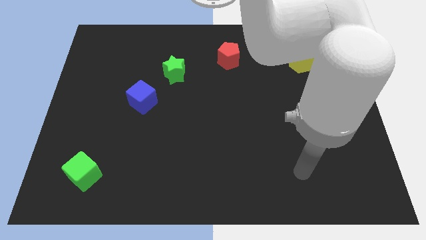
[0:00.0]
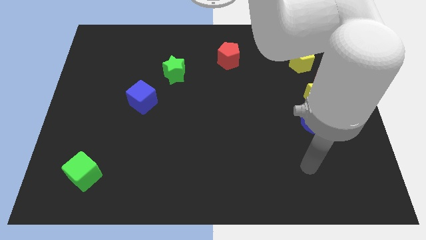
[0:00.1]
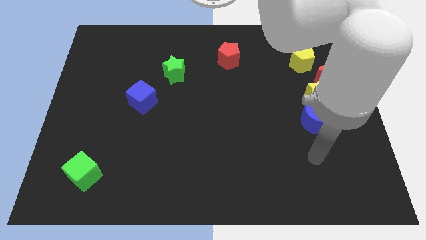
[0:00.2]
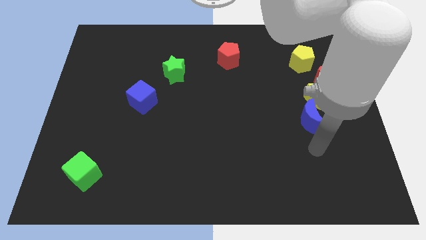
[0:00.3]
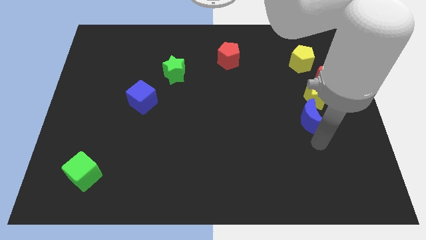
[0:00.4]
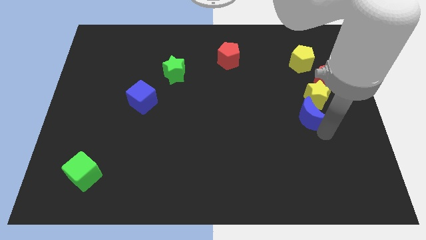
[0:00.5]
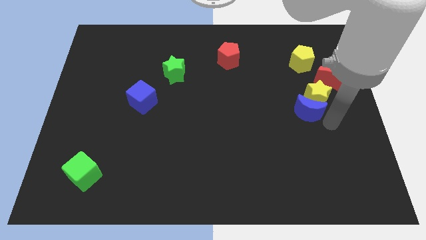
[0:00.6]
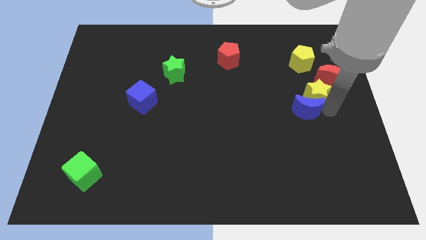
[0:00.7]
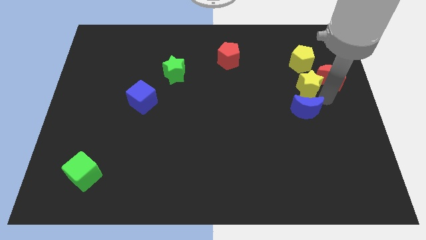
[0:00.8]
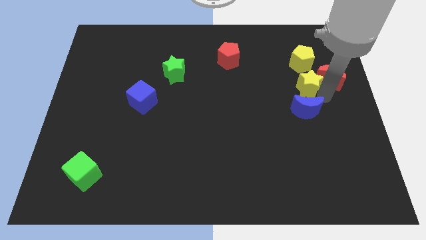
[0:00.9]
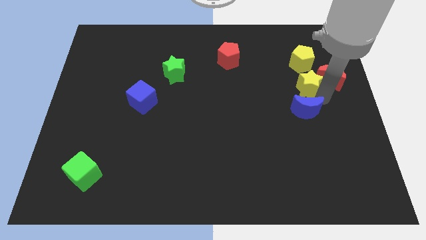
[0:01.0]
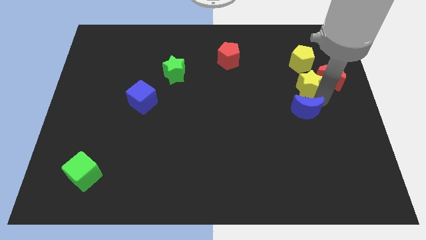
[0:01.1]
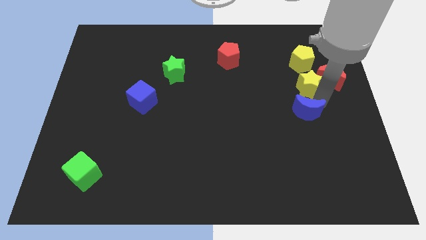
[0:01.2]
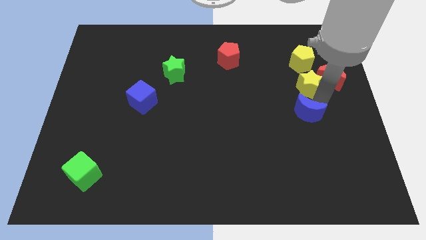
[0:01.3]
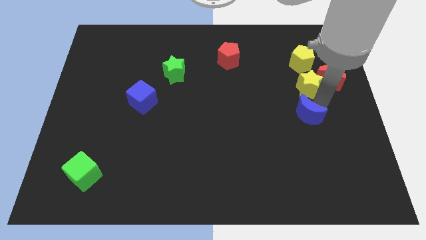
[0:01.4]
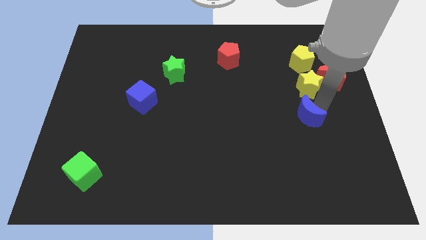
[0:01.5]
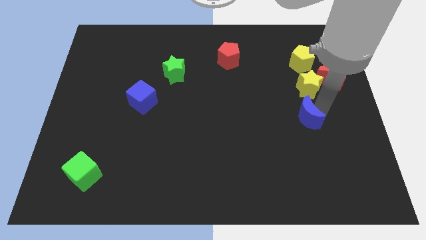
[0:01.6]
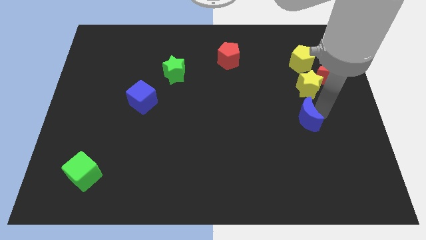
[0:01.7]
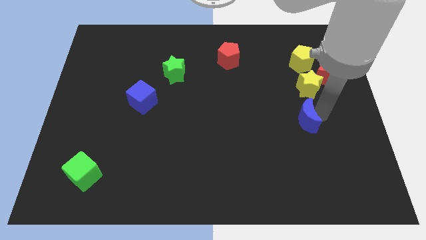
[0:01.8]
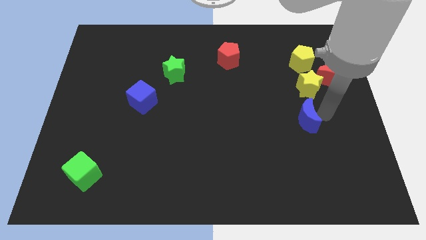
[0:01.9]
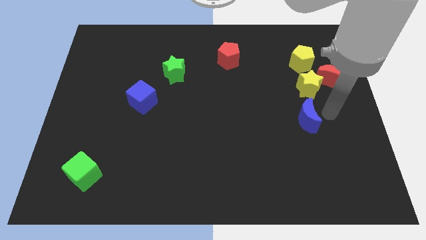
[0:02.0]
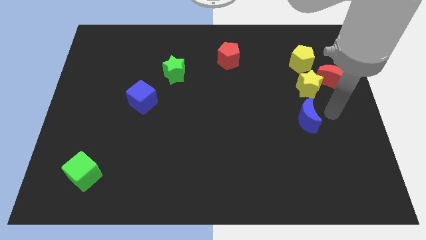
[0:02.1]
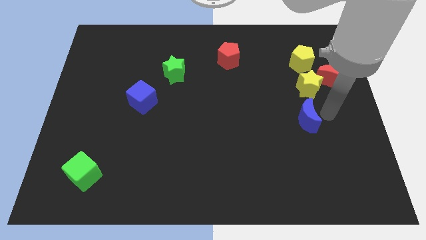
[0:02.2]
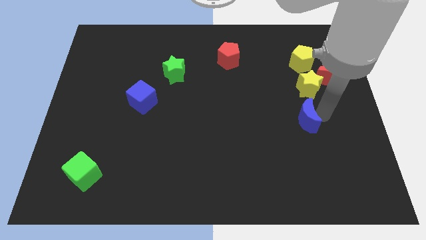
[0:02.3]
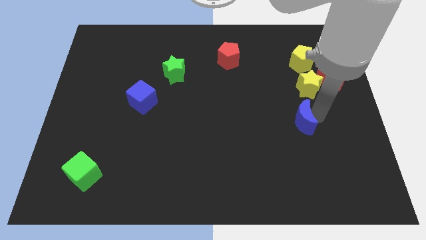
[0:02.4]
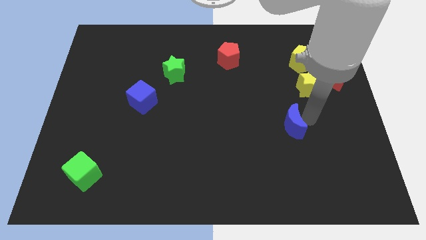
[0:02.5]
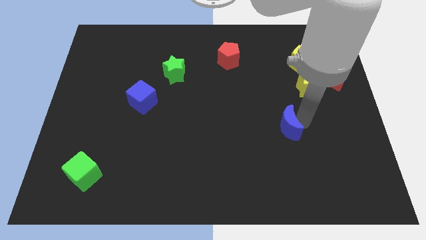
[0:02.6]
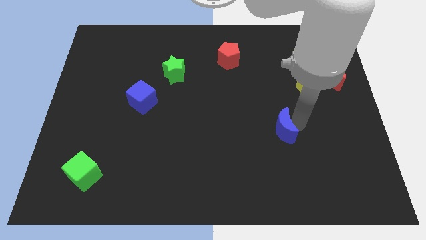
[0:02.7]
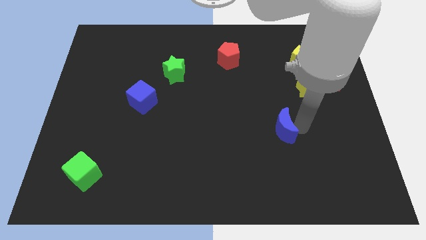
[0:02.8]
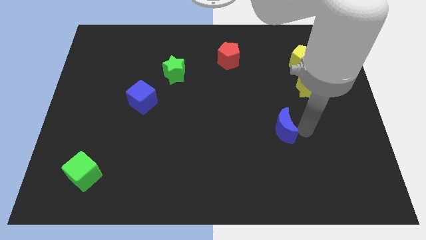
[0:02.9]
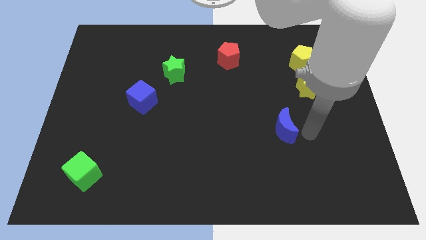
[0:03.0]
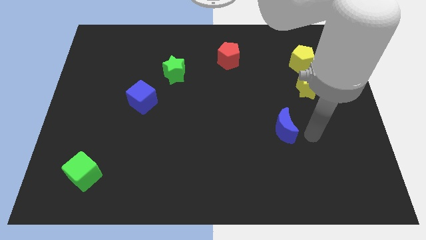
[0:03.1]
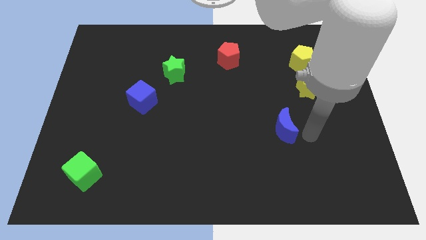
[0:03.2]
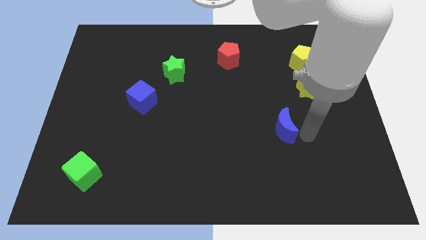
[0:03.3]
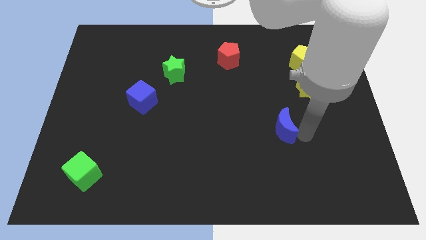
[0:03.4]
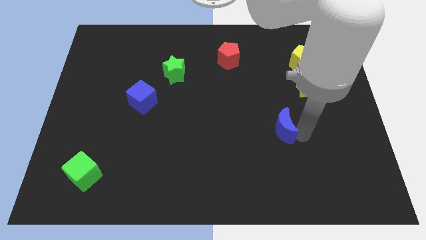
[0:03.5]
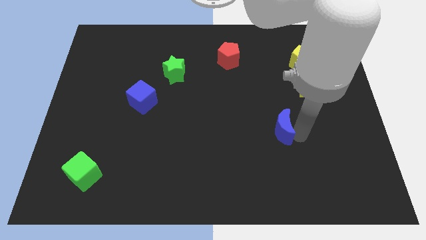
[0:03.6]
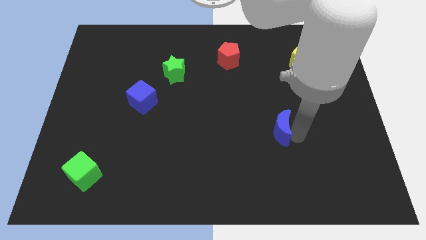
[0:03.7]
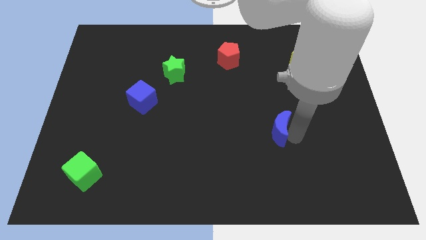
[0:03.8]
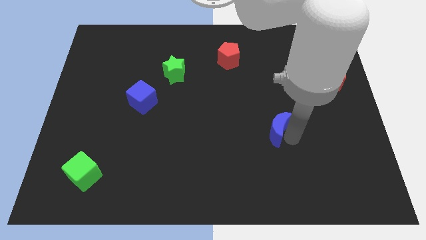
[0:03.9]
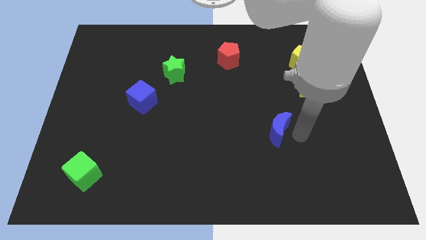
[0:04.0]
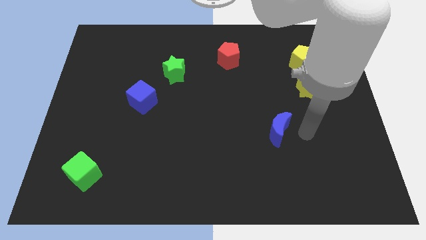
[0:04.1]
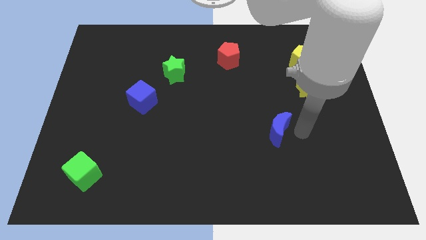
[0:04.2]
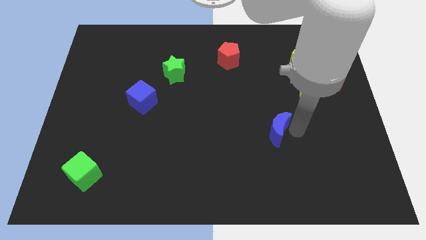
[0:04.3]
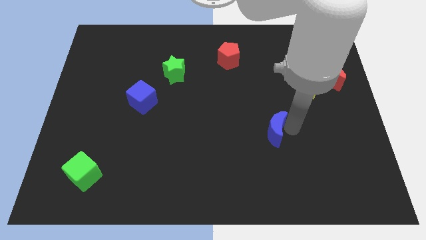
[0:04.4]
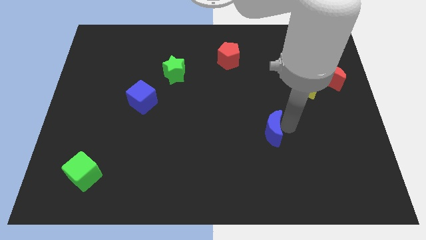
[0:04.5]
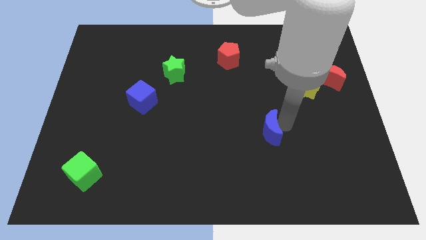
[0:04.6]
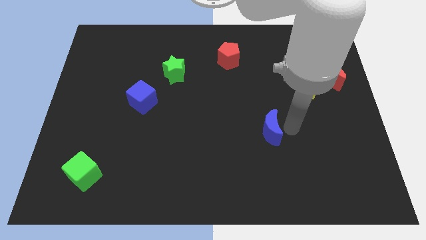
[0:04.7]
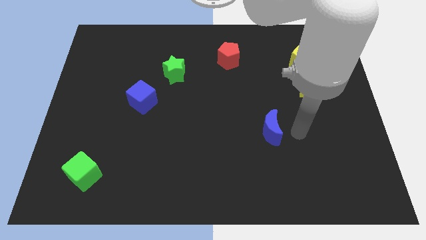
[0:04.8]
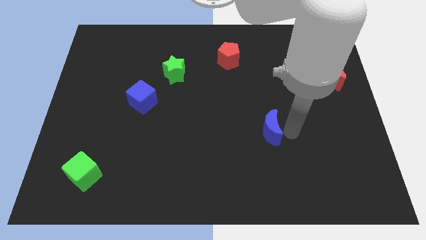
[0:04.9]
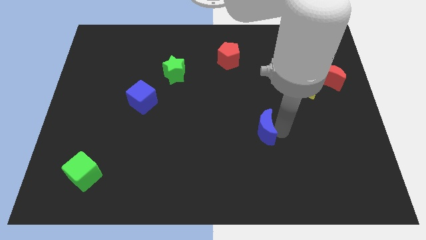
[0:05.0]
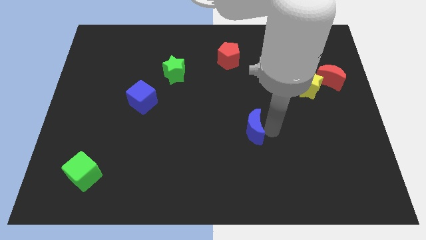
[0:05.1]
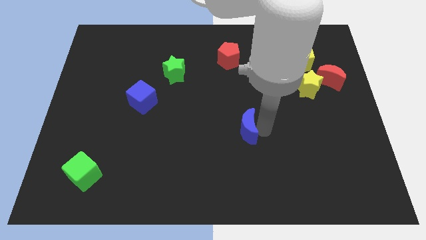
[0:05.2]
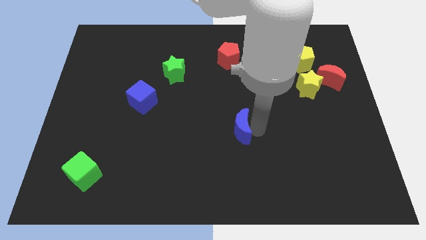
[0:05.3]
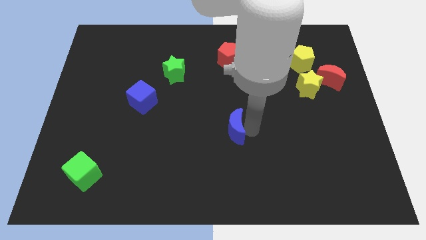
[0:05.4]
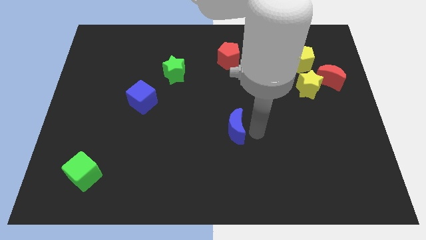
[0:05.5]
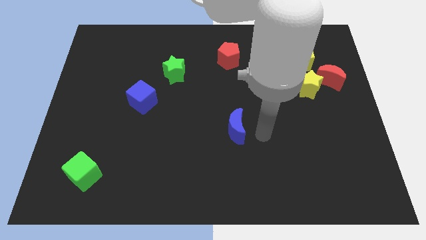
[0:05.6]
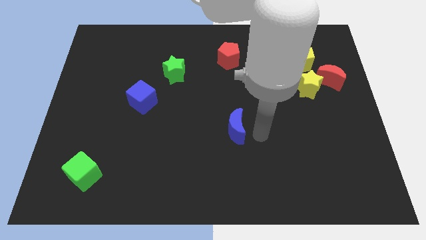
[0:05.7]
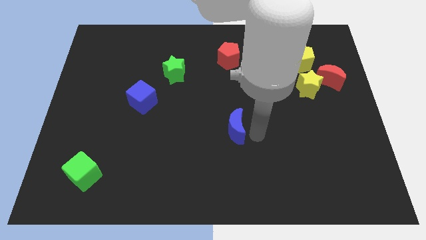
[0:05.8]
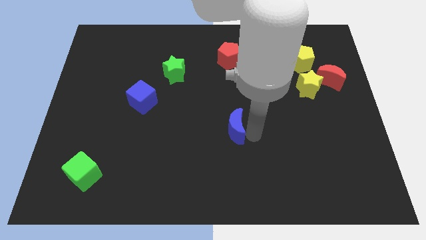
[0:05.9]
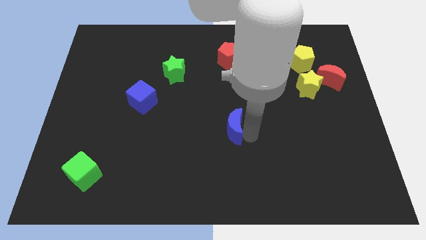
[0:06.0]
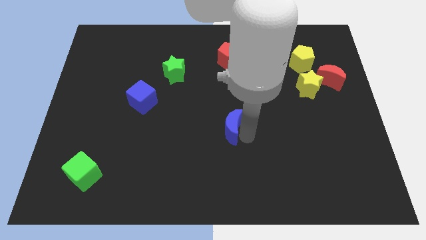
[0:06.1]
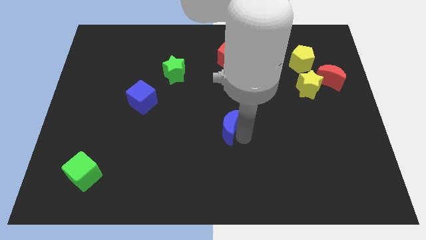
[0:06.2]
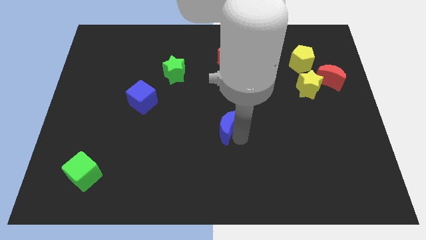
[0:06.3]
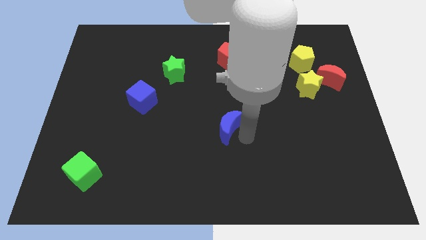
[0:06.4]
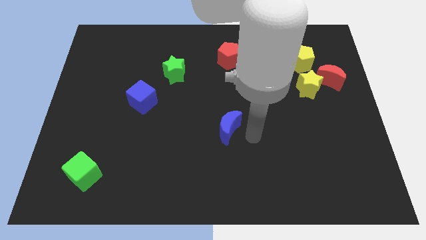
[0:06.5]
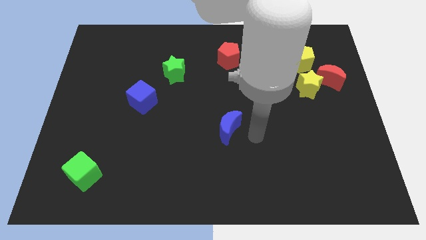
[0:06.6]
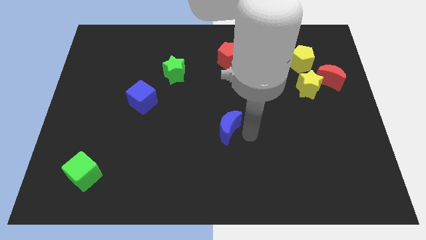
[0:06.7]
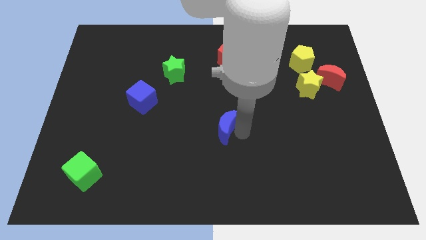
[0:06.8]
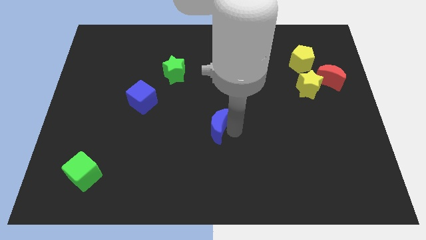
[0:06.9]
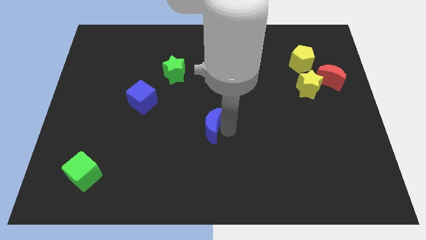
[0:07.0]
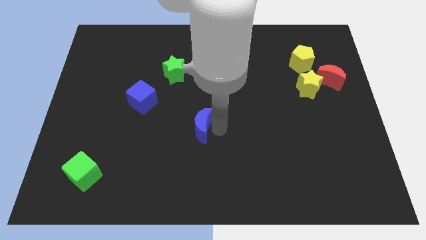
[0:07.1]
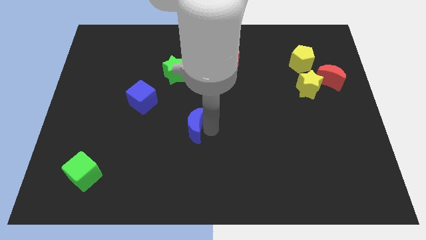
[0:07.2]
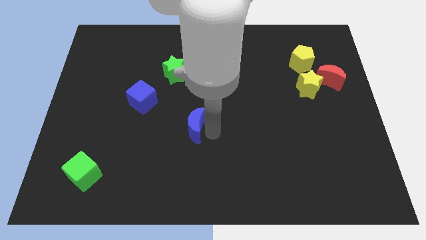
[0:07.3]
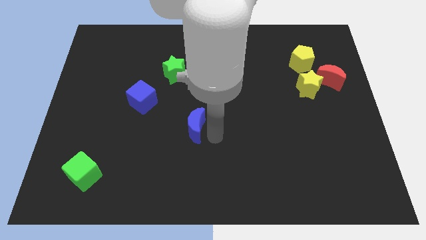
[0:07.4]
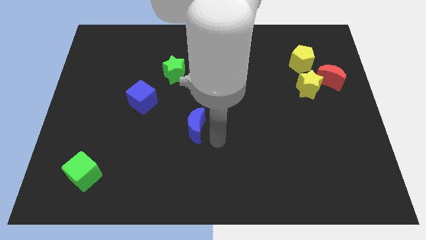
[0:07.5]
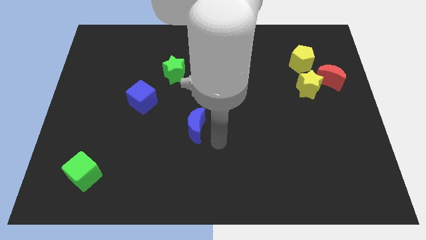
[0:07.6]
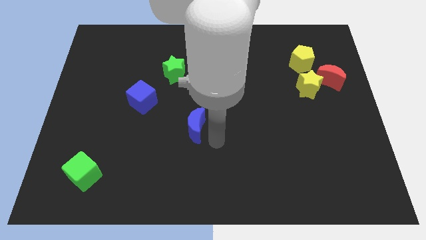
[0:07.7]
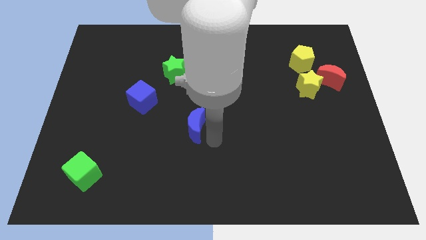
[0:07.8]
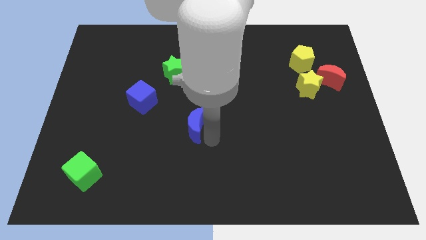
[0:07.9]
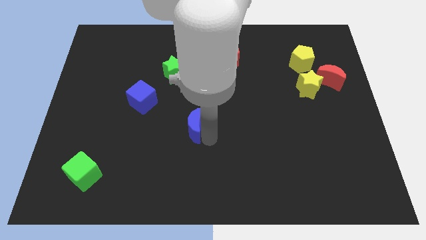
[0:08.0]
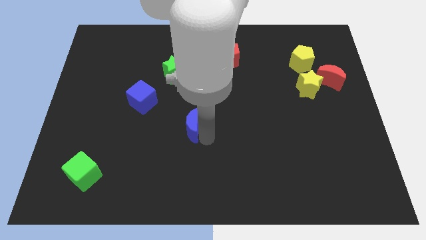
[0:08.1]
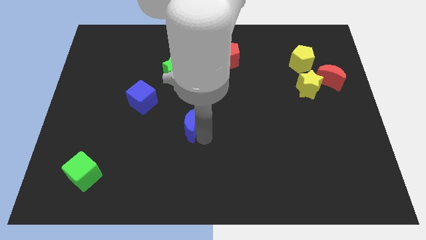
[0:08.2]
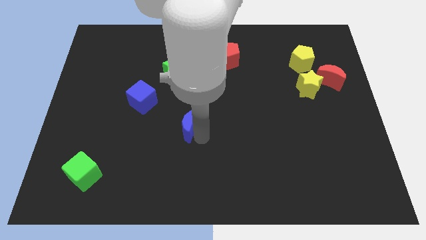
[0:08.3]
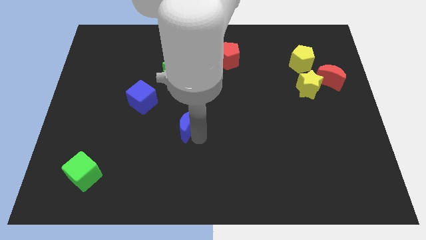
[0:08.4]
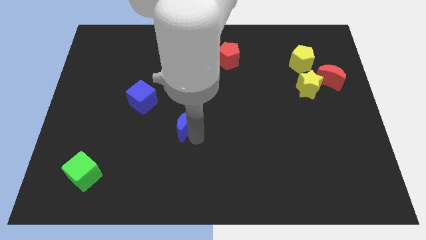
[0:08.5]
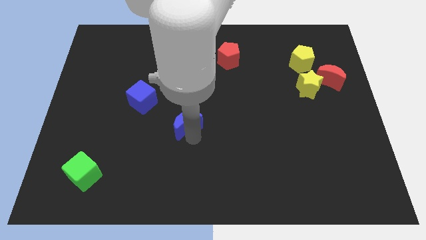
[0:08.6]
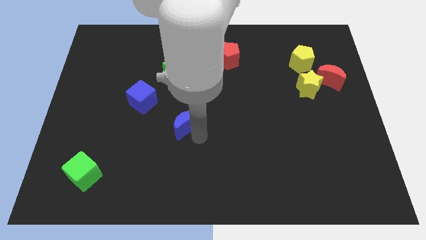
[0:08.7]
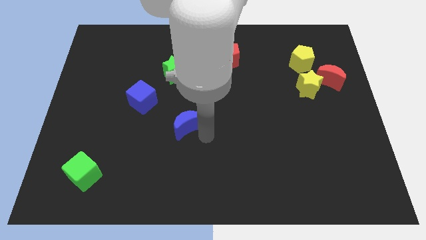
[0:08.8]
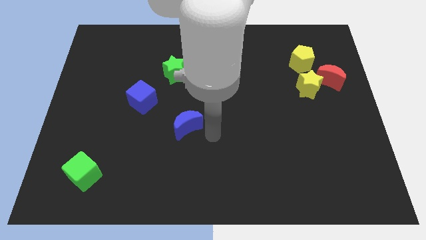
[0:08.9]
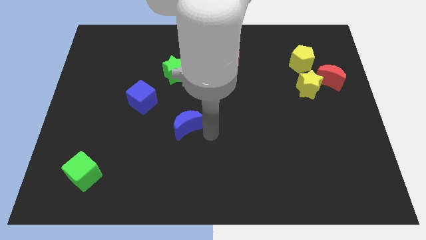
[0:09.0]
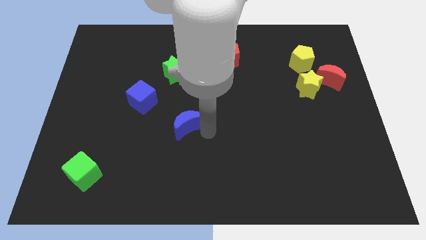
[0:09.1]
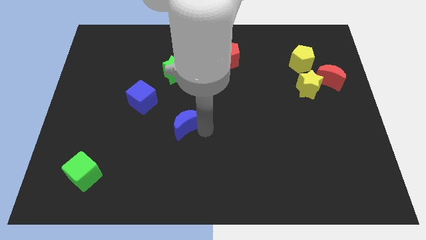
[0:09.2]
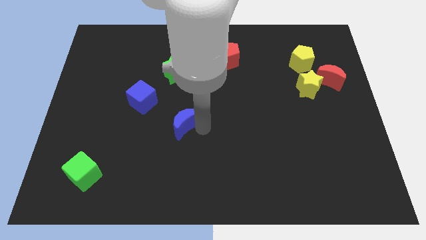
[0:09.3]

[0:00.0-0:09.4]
slide the blue moon diagonally down and to the right of the blue cube
